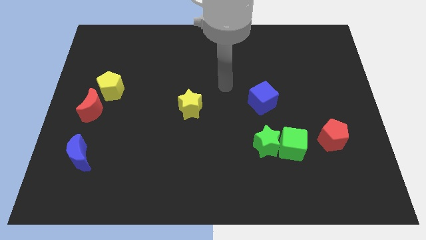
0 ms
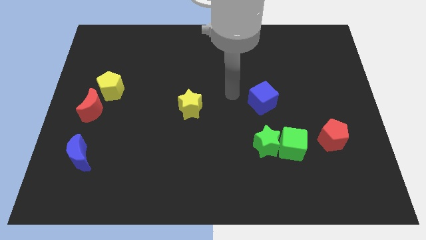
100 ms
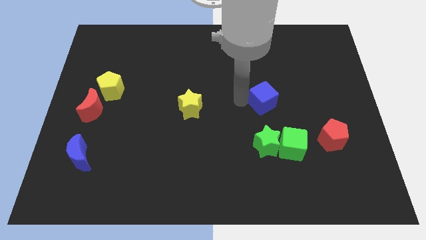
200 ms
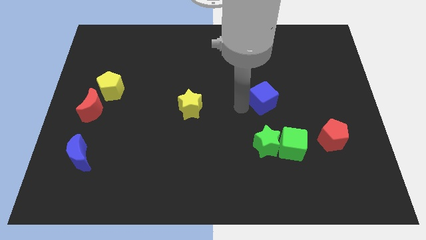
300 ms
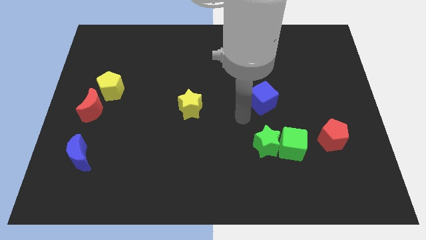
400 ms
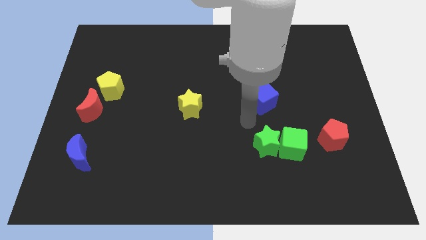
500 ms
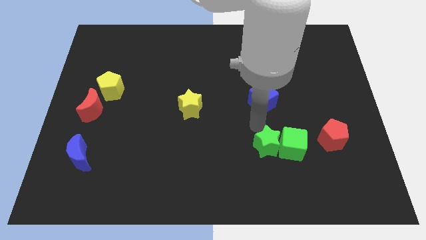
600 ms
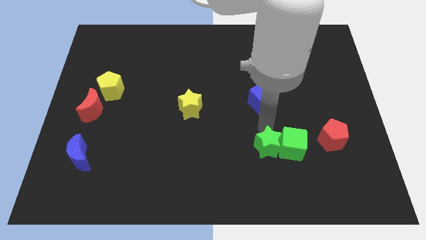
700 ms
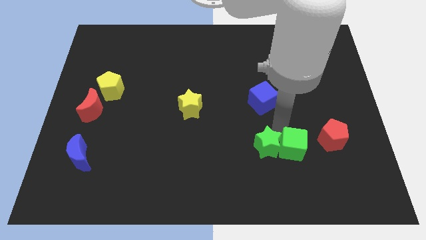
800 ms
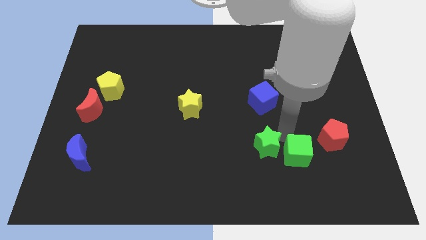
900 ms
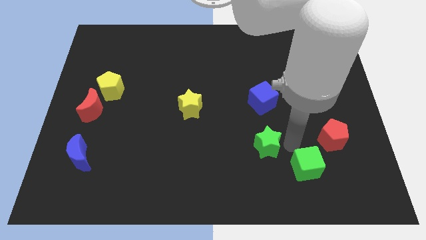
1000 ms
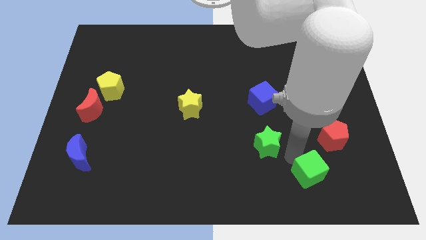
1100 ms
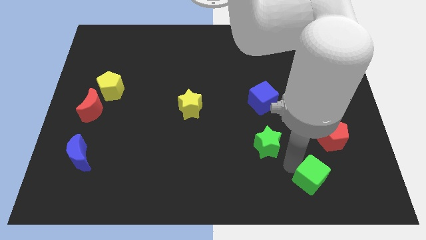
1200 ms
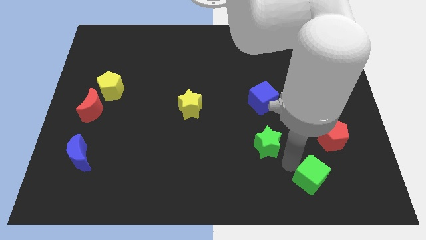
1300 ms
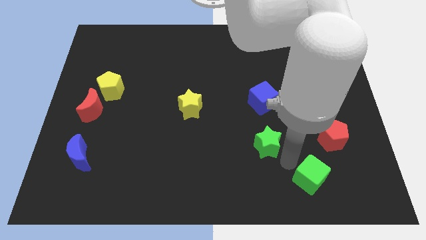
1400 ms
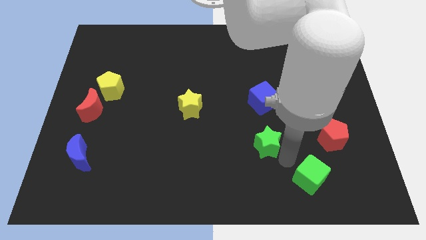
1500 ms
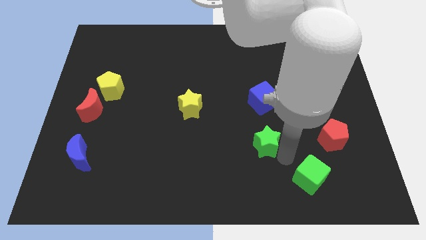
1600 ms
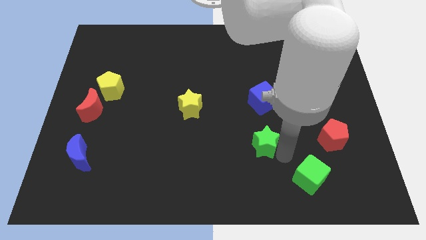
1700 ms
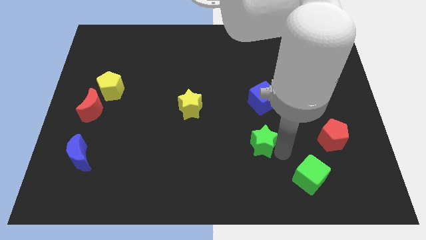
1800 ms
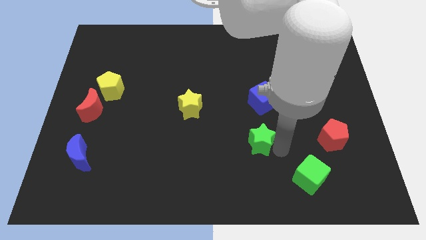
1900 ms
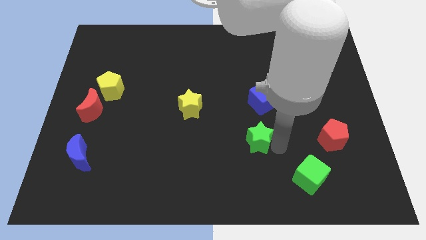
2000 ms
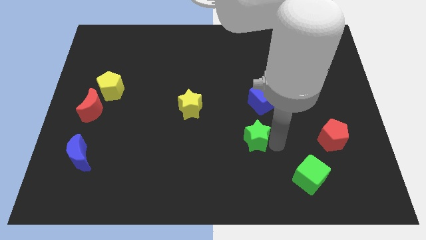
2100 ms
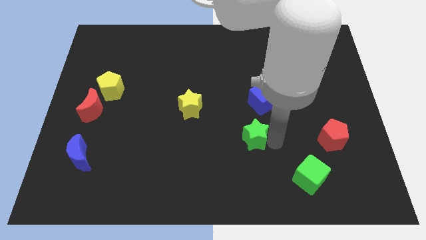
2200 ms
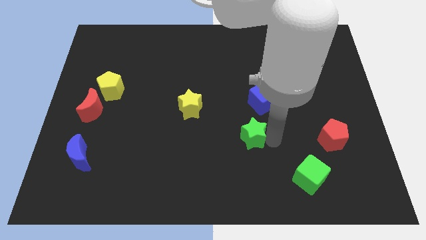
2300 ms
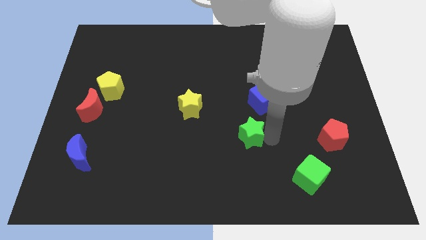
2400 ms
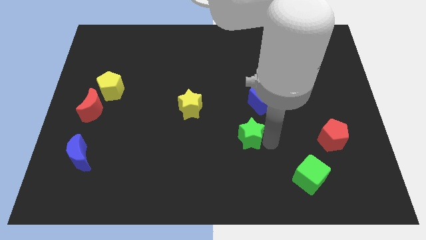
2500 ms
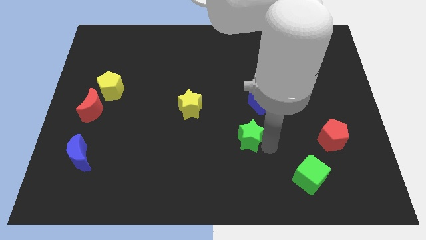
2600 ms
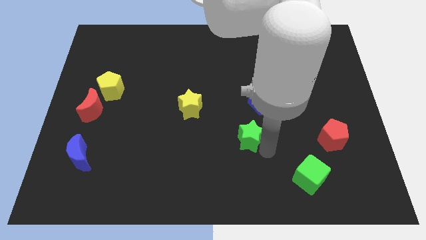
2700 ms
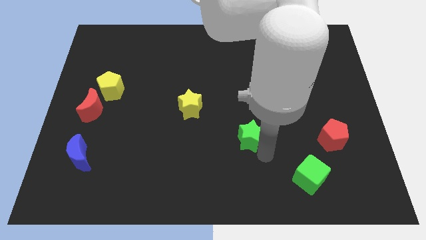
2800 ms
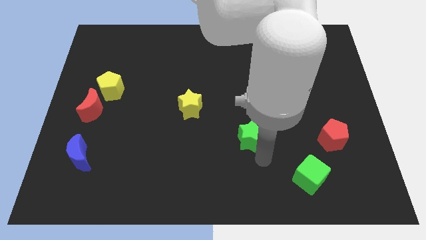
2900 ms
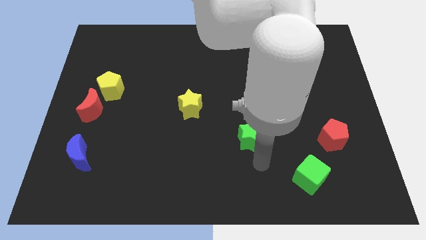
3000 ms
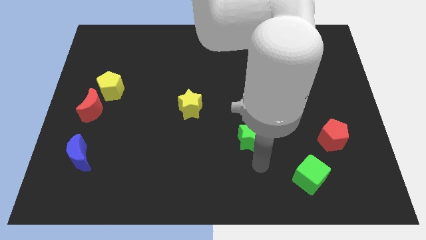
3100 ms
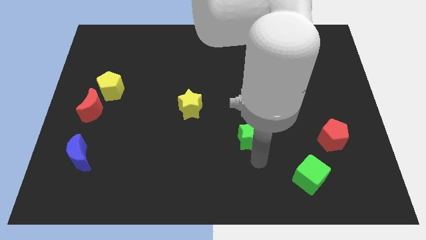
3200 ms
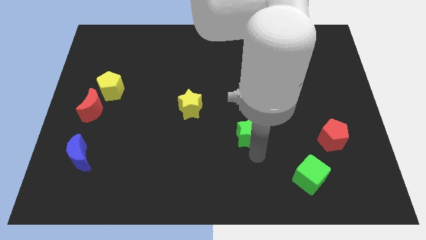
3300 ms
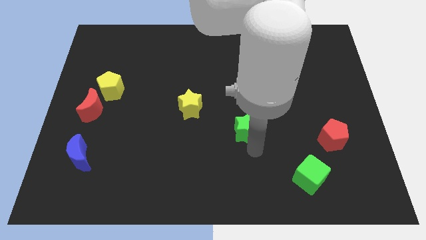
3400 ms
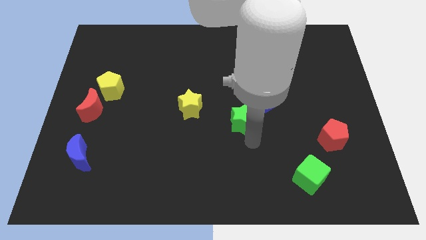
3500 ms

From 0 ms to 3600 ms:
push the green star upwards and left diagonally a little

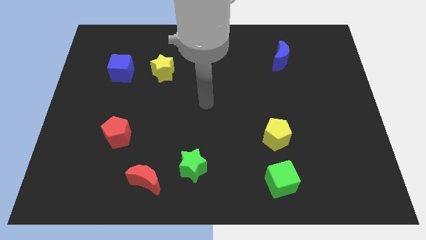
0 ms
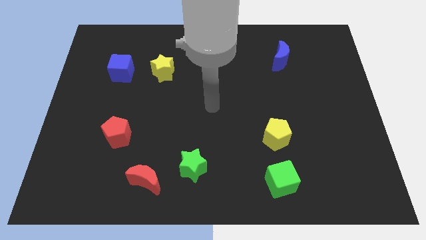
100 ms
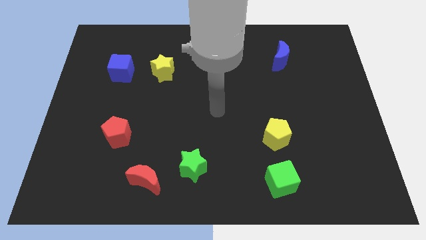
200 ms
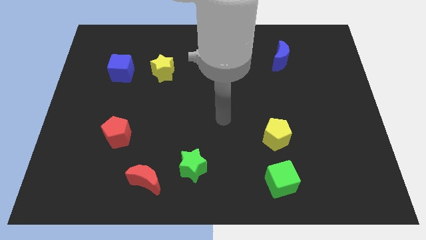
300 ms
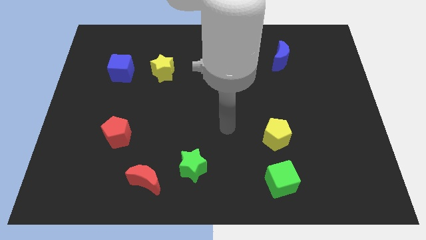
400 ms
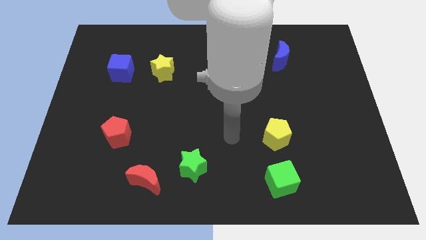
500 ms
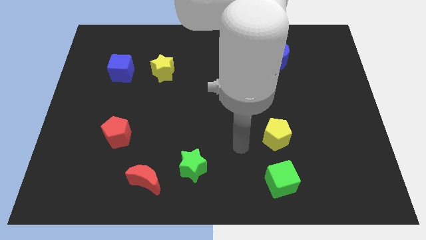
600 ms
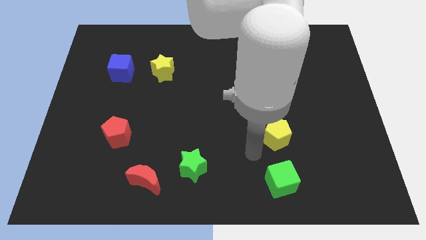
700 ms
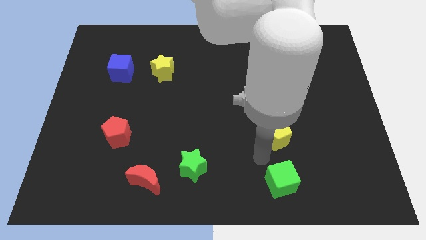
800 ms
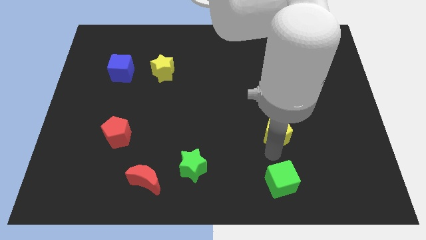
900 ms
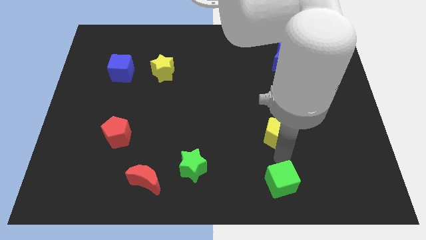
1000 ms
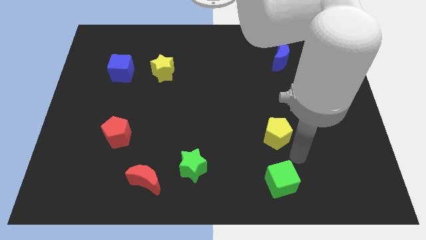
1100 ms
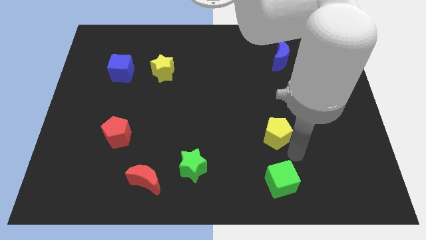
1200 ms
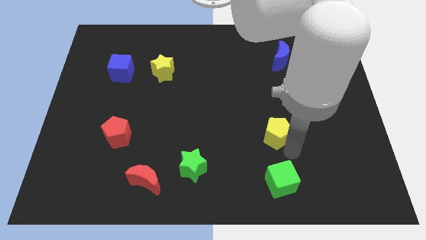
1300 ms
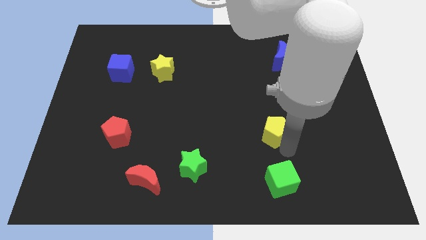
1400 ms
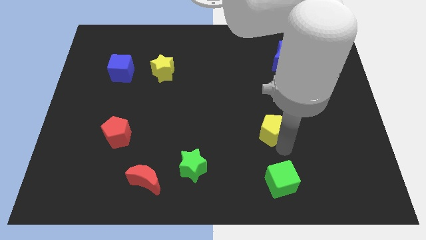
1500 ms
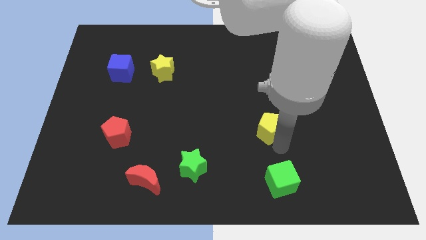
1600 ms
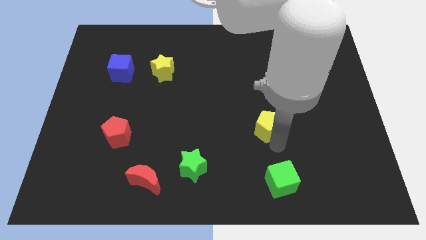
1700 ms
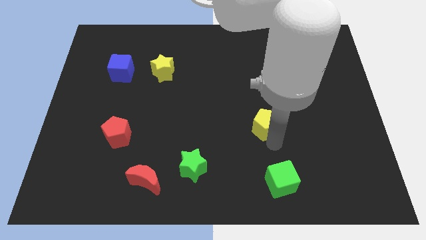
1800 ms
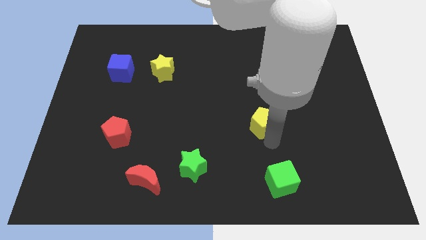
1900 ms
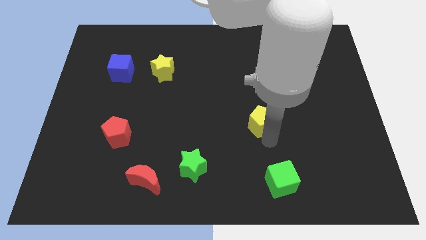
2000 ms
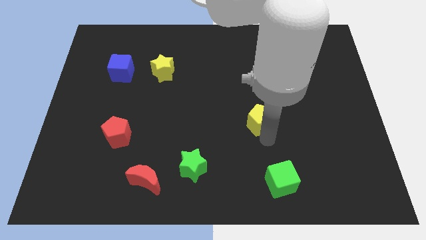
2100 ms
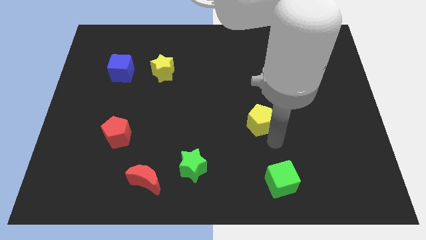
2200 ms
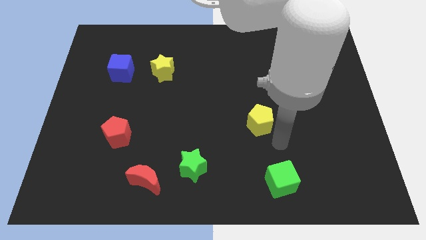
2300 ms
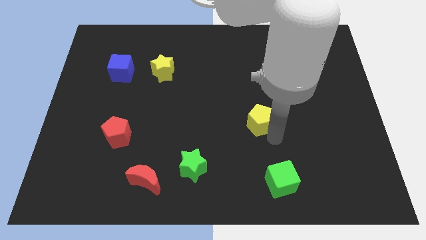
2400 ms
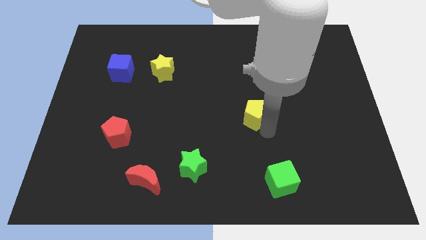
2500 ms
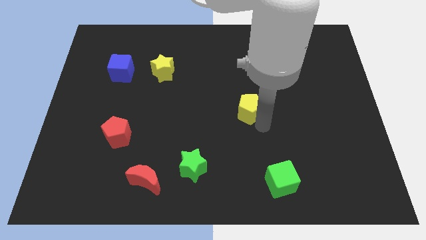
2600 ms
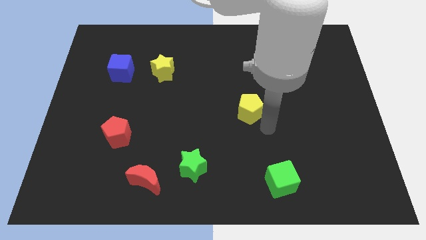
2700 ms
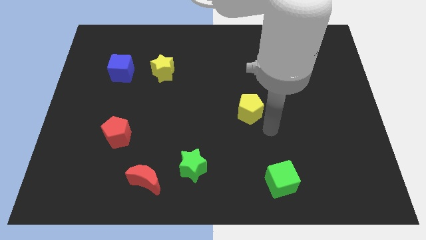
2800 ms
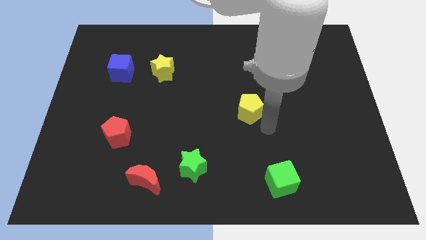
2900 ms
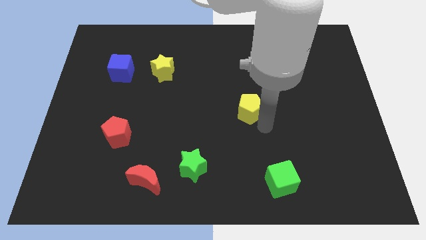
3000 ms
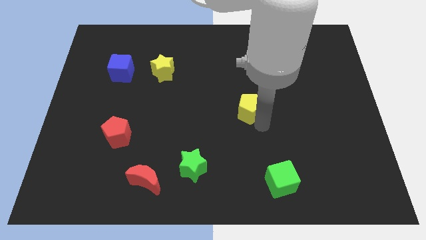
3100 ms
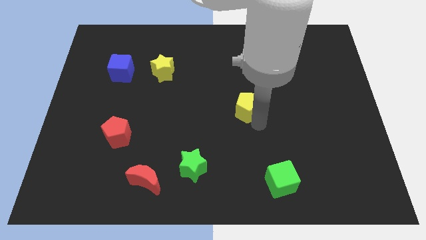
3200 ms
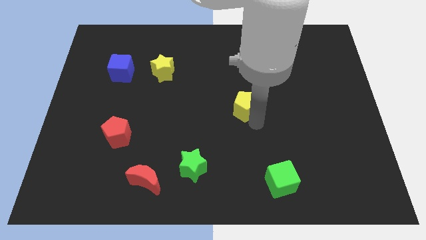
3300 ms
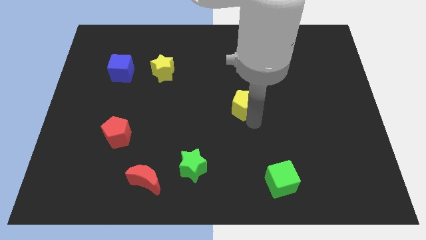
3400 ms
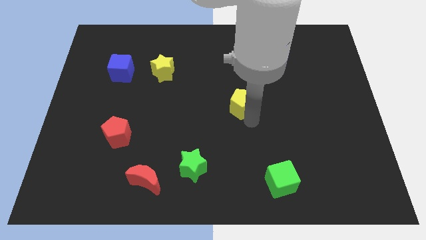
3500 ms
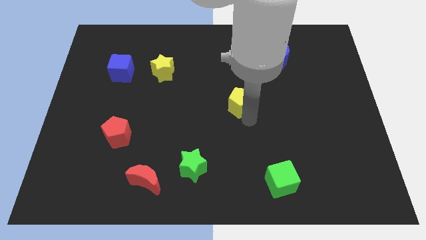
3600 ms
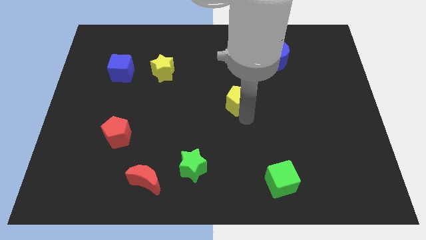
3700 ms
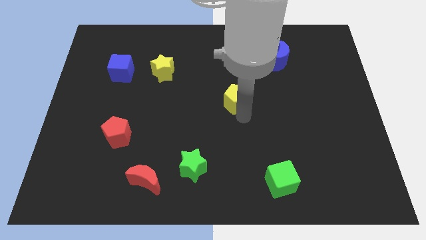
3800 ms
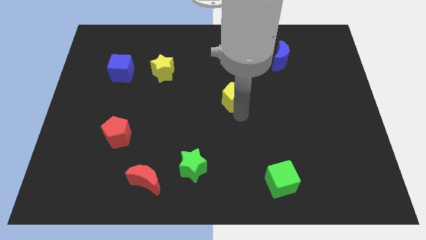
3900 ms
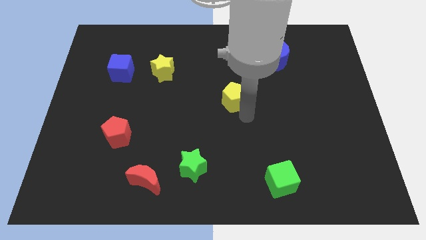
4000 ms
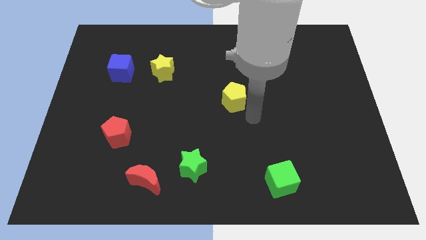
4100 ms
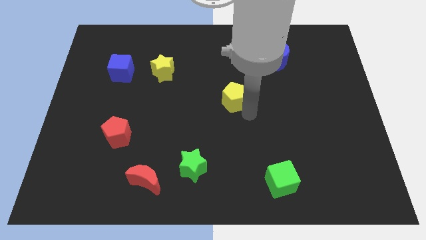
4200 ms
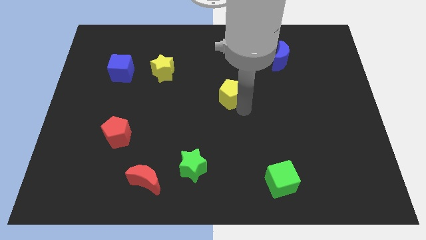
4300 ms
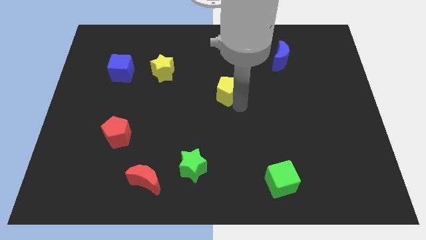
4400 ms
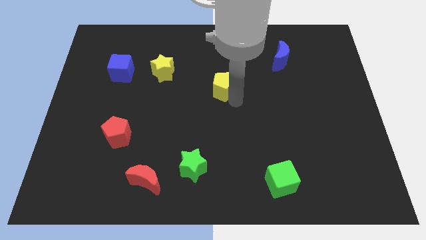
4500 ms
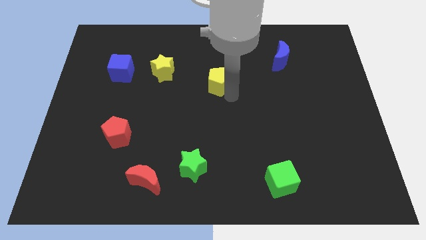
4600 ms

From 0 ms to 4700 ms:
slide the yellow pentagon upwards and then left
